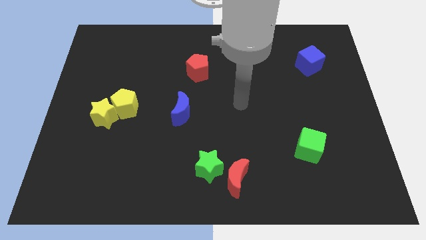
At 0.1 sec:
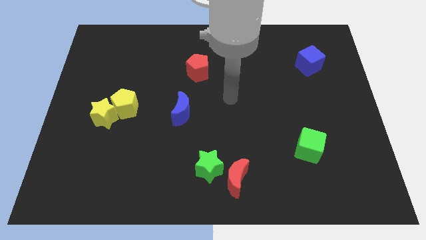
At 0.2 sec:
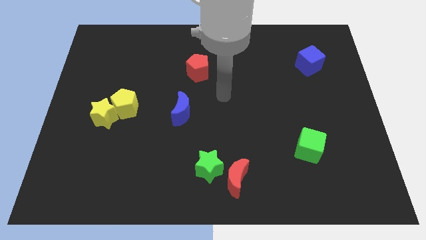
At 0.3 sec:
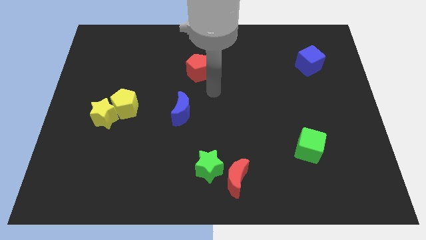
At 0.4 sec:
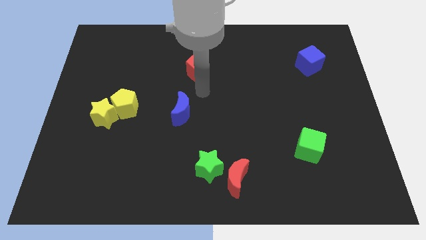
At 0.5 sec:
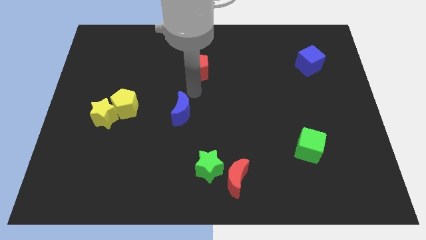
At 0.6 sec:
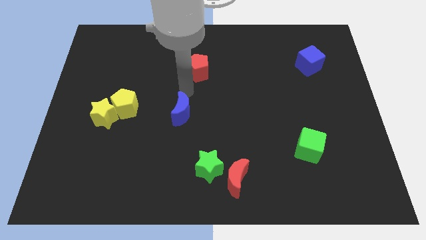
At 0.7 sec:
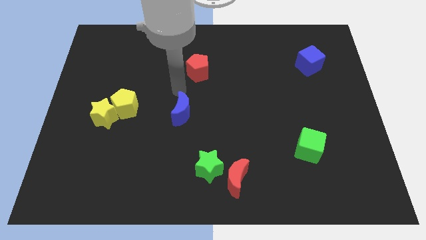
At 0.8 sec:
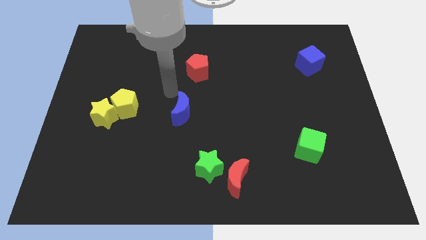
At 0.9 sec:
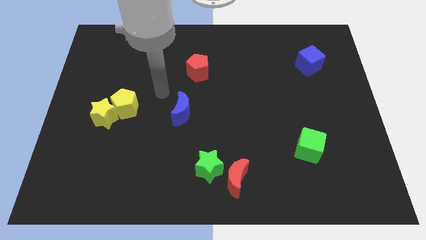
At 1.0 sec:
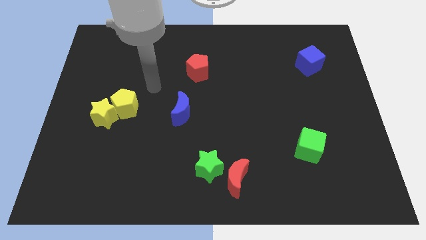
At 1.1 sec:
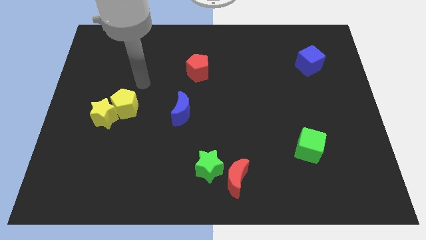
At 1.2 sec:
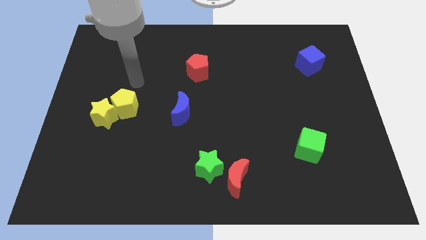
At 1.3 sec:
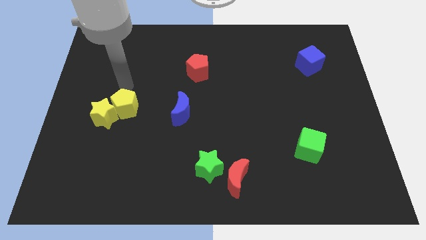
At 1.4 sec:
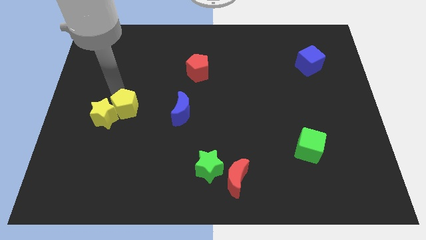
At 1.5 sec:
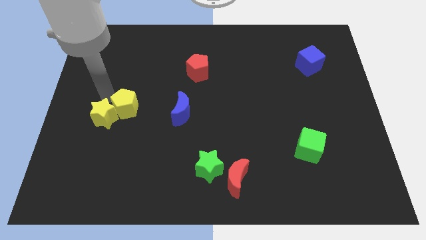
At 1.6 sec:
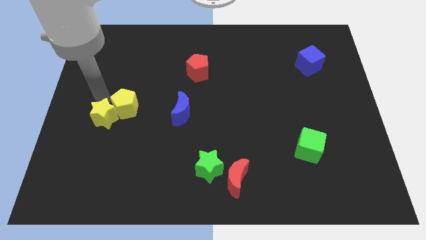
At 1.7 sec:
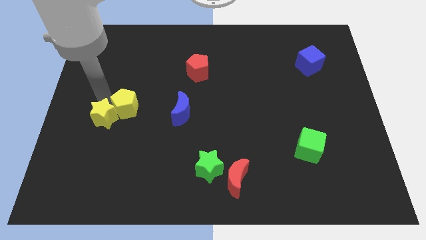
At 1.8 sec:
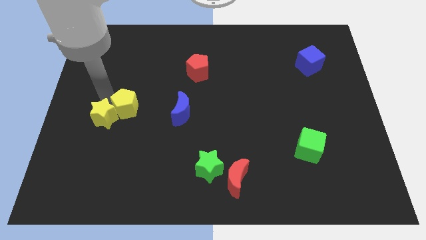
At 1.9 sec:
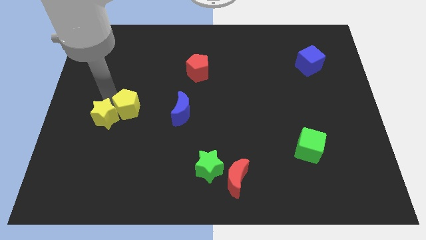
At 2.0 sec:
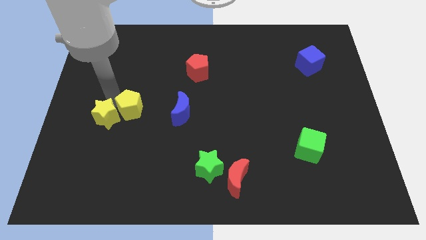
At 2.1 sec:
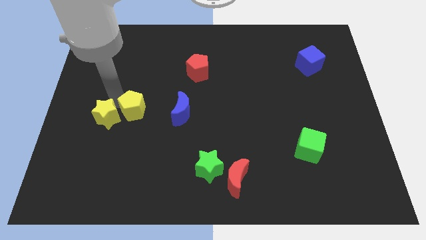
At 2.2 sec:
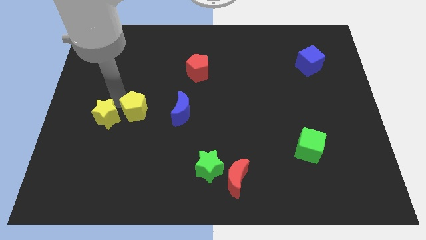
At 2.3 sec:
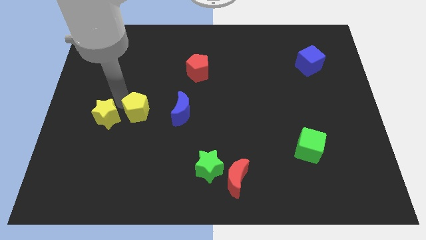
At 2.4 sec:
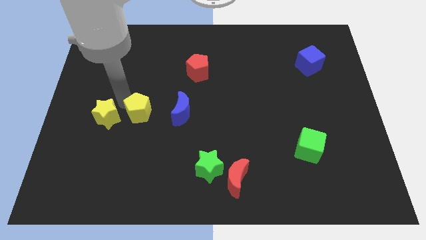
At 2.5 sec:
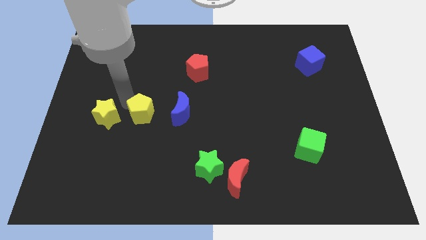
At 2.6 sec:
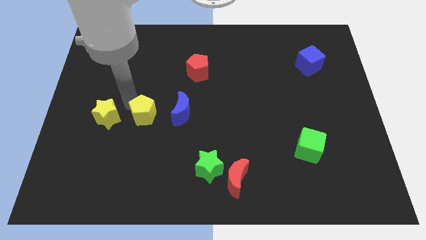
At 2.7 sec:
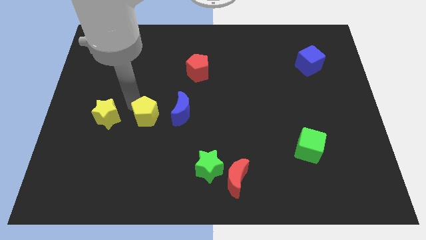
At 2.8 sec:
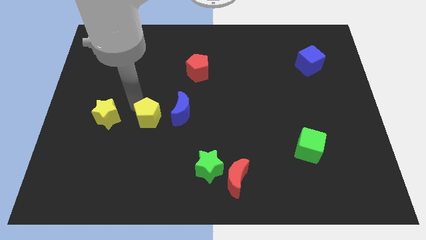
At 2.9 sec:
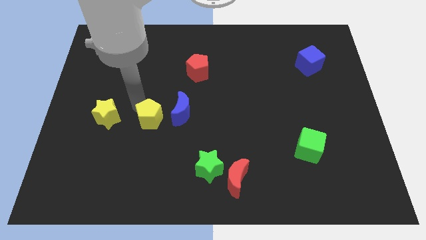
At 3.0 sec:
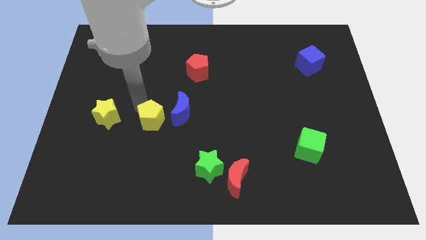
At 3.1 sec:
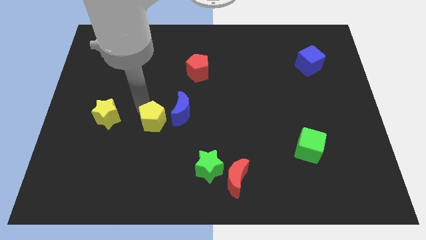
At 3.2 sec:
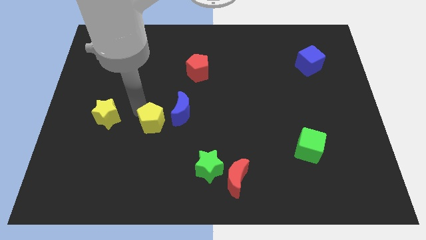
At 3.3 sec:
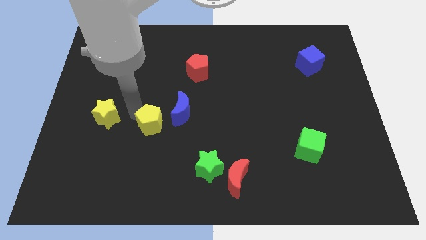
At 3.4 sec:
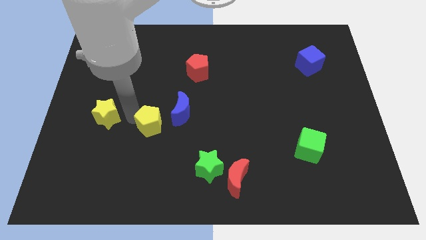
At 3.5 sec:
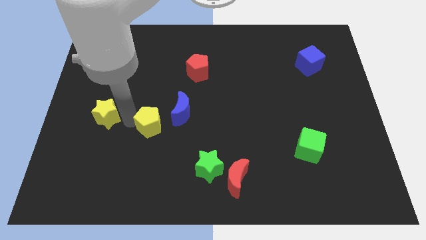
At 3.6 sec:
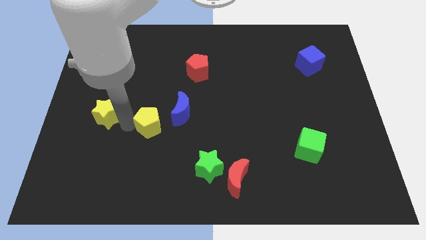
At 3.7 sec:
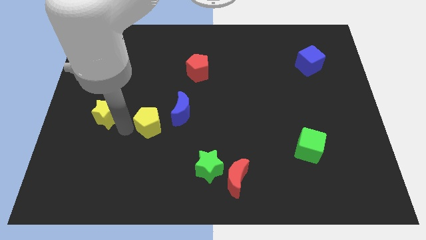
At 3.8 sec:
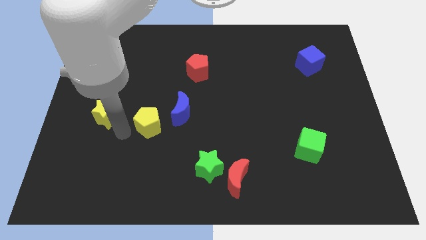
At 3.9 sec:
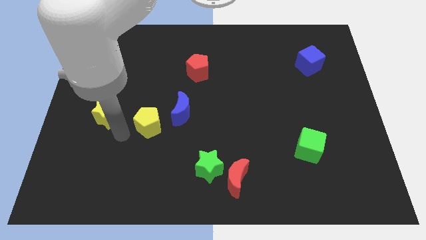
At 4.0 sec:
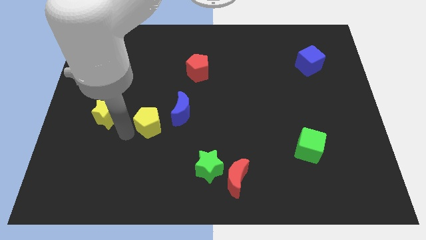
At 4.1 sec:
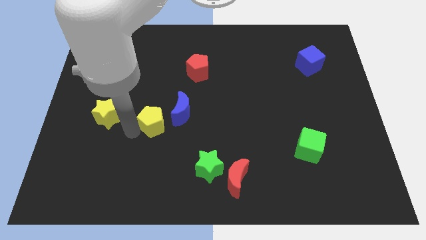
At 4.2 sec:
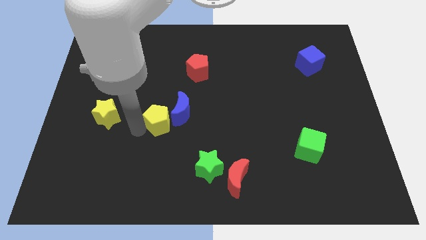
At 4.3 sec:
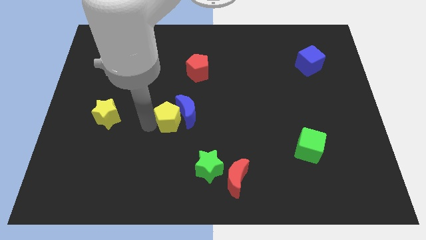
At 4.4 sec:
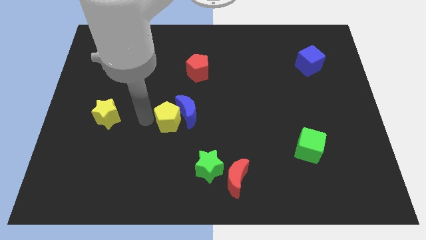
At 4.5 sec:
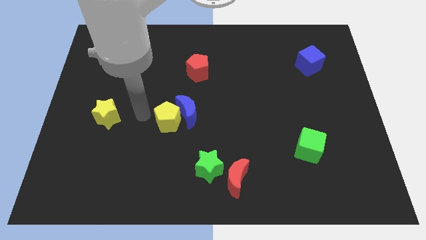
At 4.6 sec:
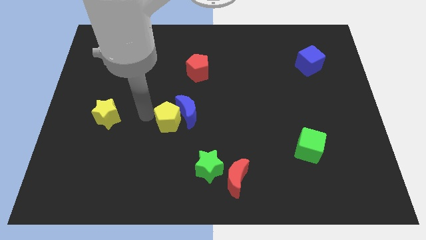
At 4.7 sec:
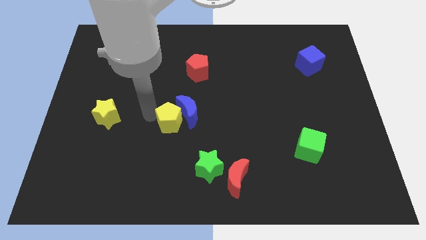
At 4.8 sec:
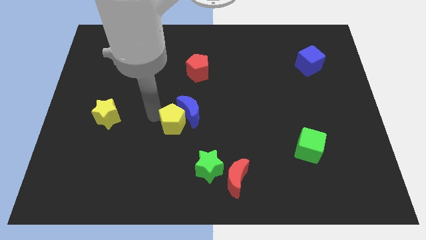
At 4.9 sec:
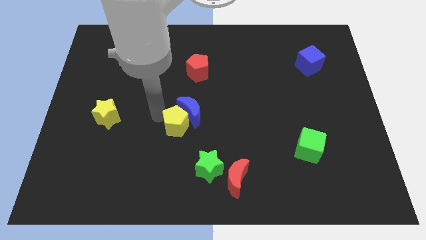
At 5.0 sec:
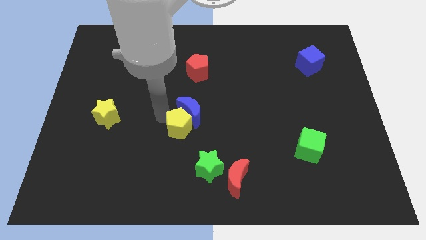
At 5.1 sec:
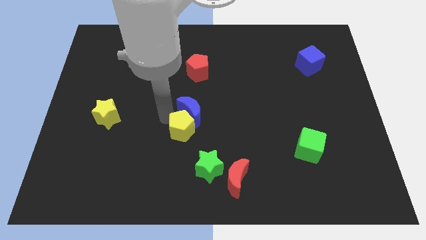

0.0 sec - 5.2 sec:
move the yellow pentagon diagonally down and to the right of the blue moon

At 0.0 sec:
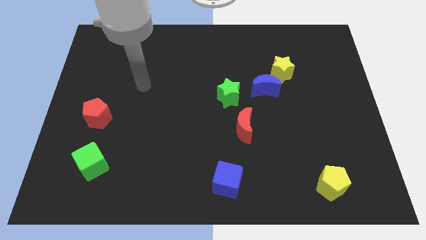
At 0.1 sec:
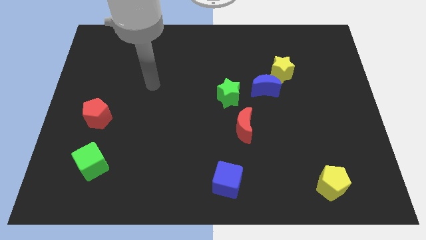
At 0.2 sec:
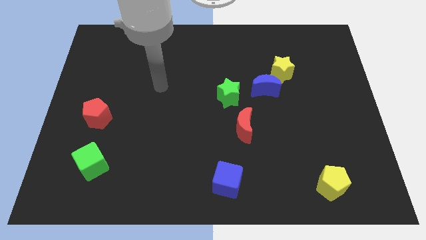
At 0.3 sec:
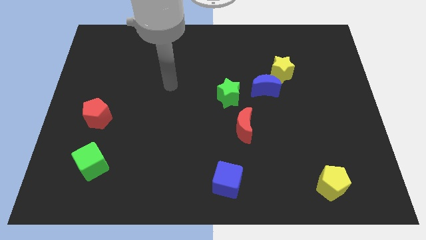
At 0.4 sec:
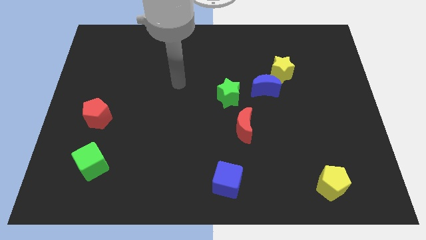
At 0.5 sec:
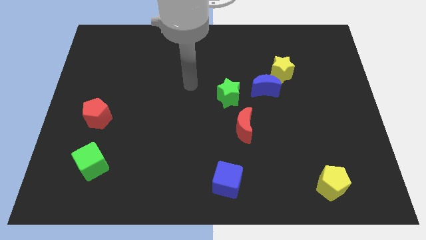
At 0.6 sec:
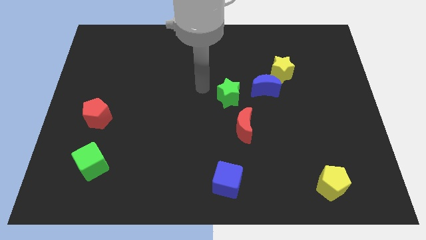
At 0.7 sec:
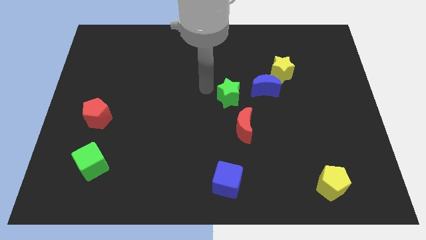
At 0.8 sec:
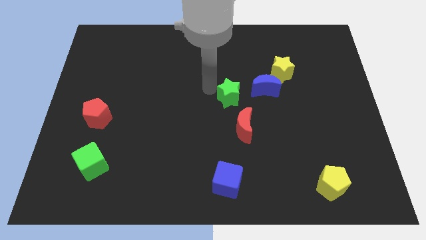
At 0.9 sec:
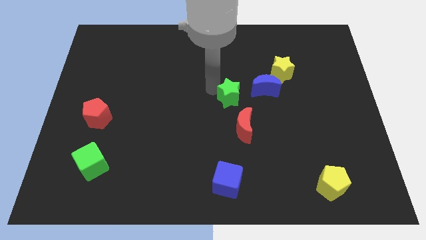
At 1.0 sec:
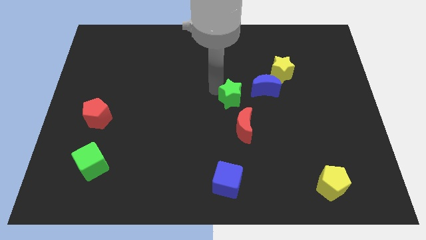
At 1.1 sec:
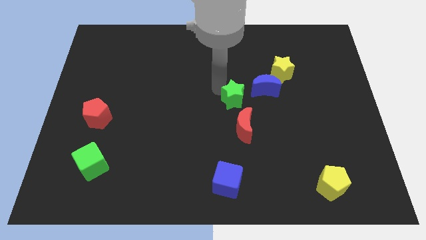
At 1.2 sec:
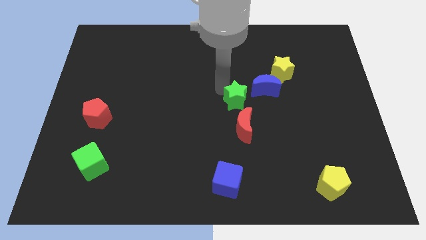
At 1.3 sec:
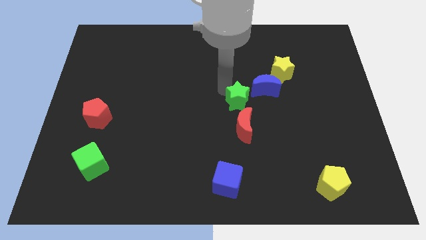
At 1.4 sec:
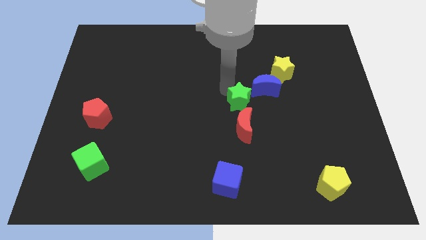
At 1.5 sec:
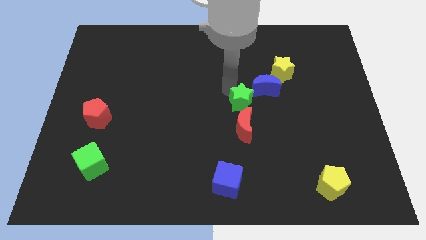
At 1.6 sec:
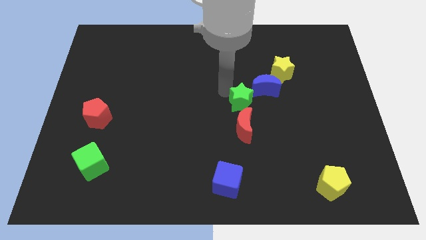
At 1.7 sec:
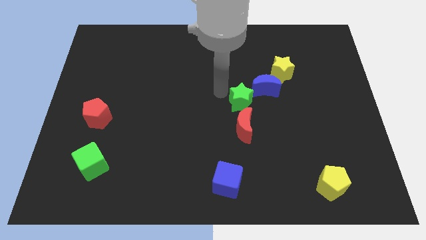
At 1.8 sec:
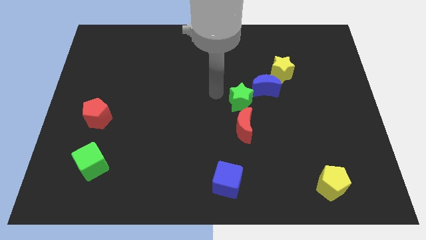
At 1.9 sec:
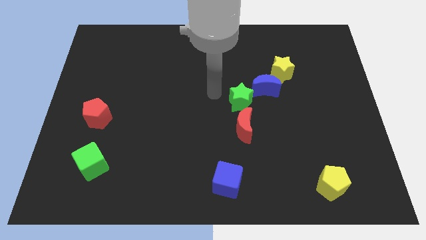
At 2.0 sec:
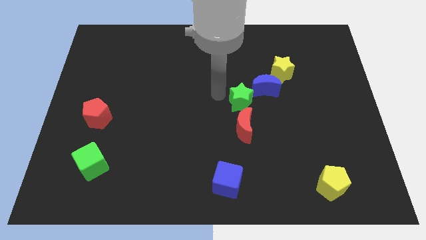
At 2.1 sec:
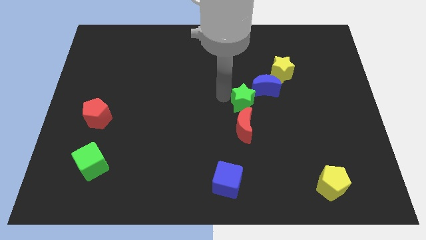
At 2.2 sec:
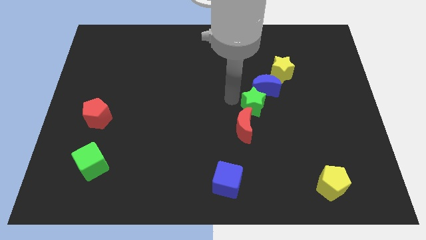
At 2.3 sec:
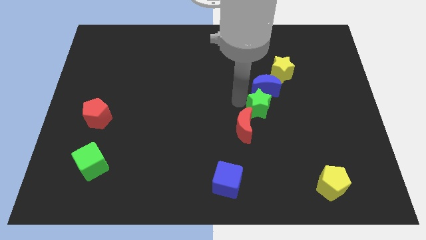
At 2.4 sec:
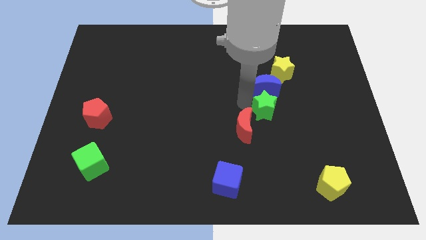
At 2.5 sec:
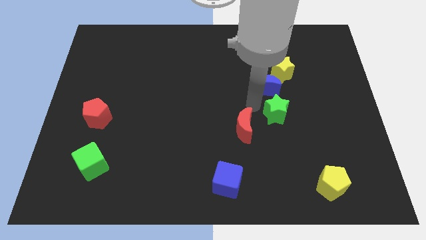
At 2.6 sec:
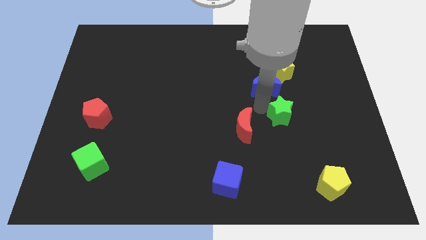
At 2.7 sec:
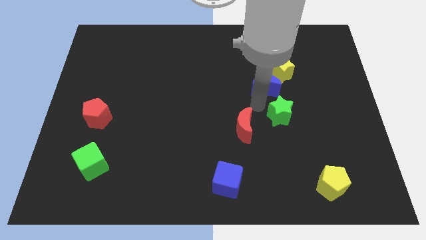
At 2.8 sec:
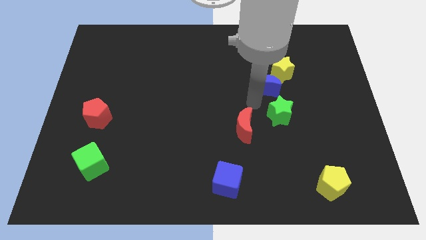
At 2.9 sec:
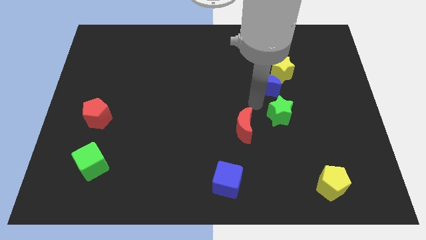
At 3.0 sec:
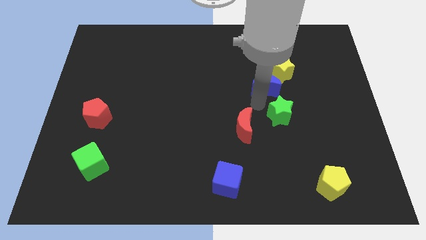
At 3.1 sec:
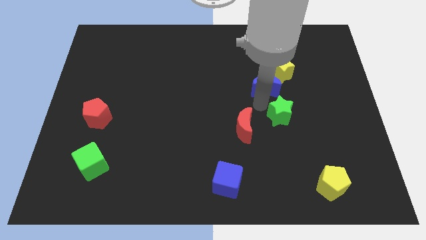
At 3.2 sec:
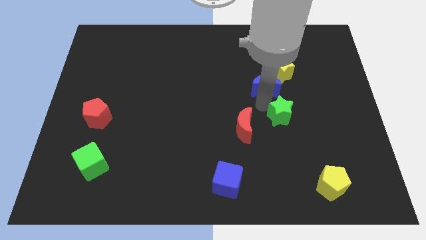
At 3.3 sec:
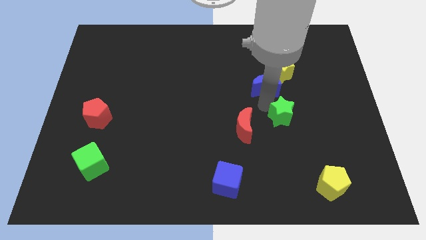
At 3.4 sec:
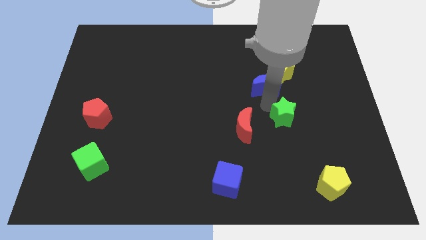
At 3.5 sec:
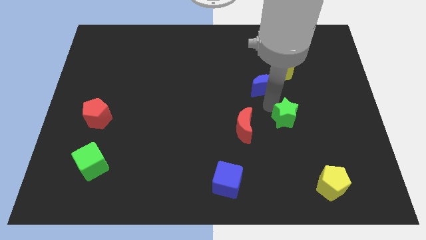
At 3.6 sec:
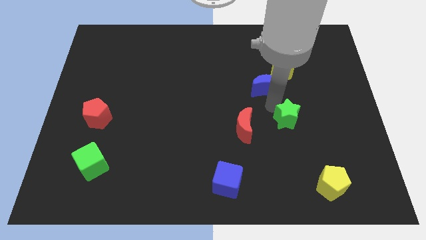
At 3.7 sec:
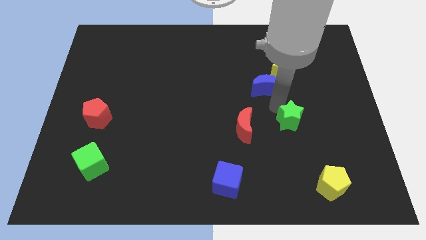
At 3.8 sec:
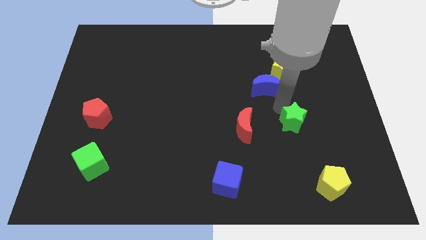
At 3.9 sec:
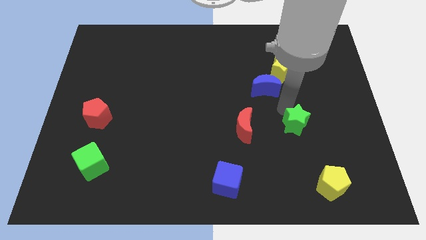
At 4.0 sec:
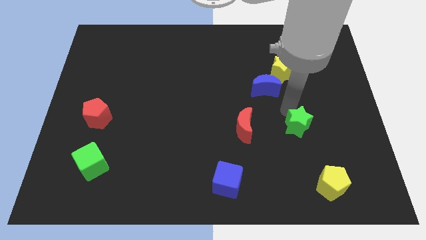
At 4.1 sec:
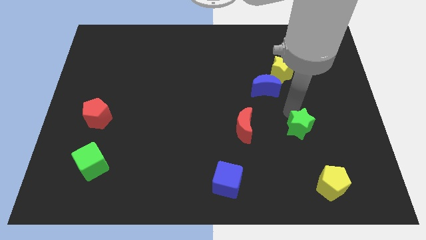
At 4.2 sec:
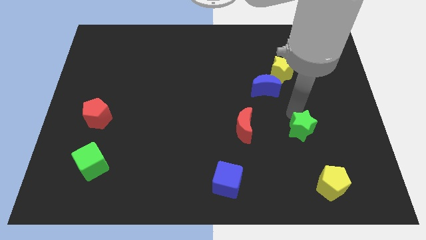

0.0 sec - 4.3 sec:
push the green star above the yellow pentagon
